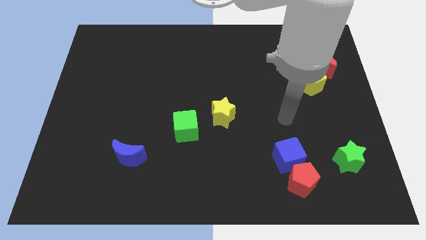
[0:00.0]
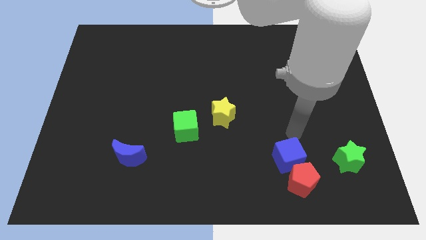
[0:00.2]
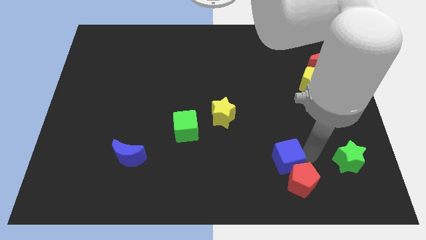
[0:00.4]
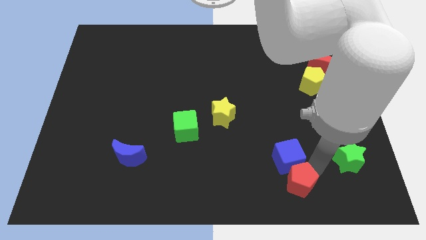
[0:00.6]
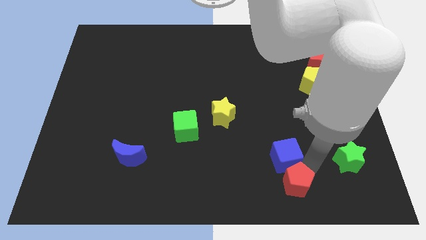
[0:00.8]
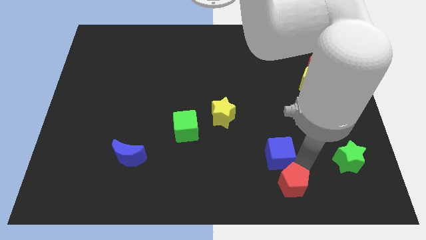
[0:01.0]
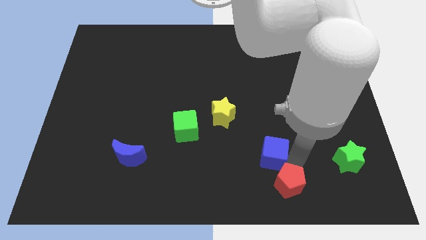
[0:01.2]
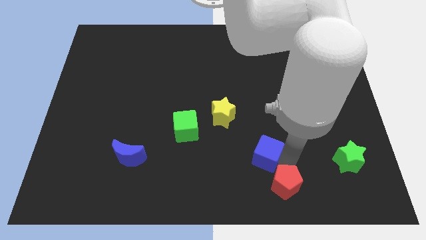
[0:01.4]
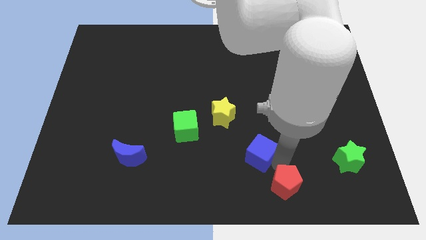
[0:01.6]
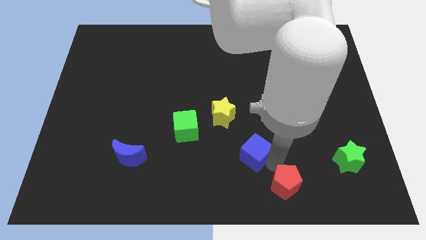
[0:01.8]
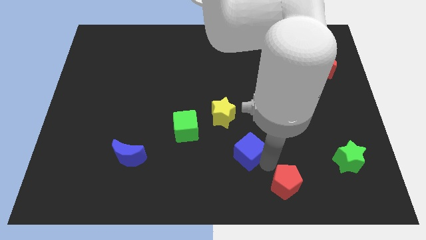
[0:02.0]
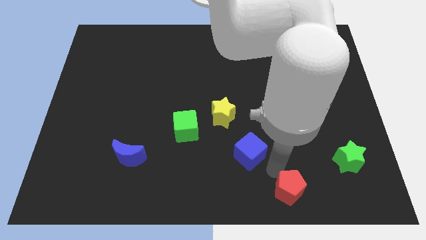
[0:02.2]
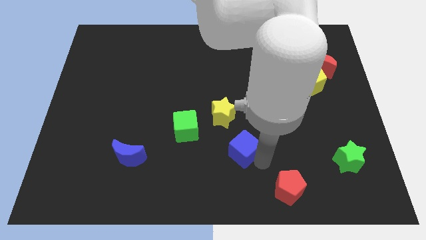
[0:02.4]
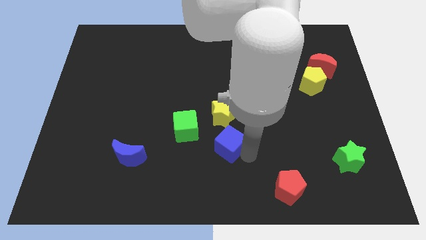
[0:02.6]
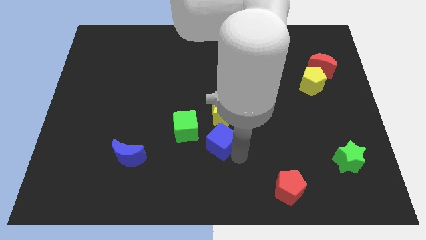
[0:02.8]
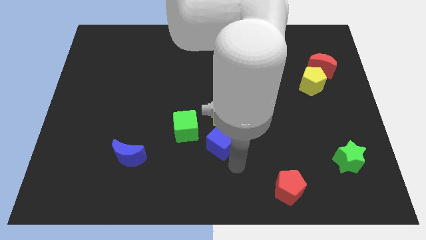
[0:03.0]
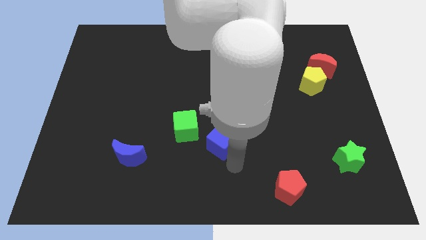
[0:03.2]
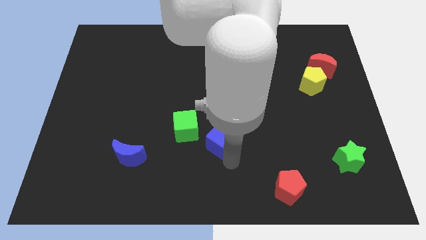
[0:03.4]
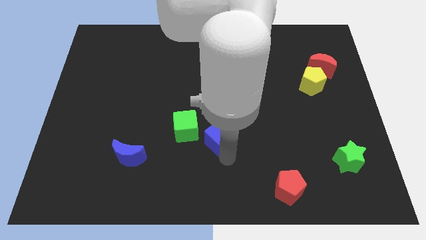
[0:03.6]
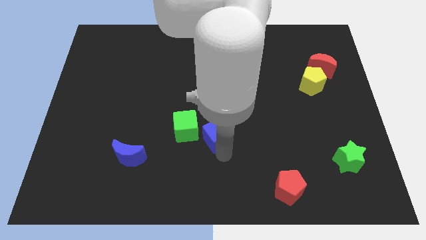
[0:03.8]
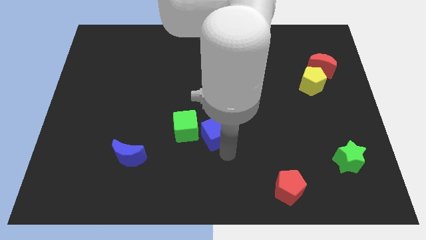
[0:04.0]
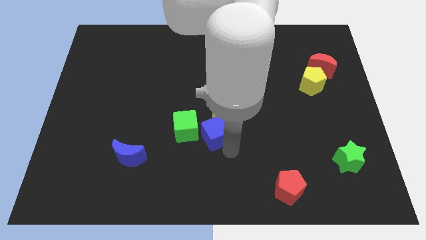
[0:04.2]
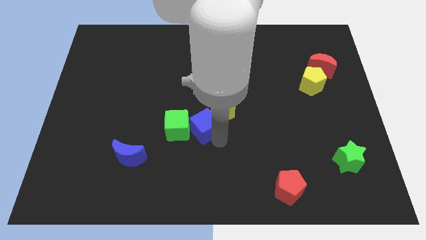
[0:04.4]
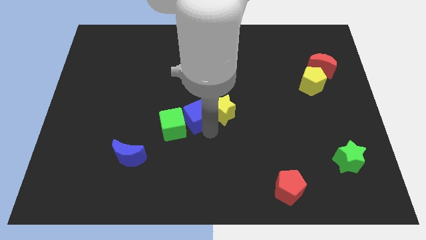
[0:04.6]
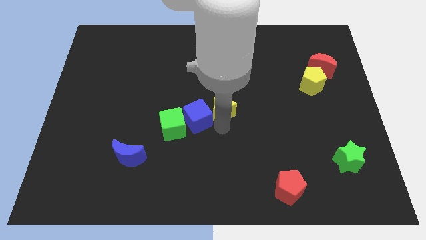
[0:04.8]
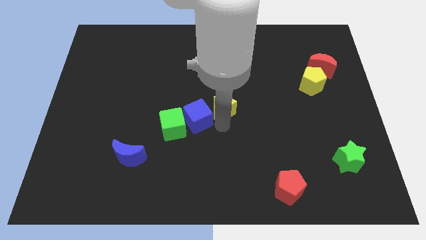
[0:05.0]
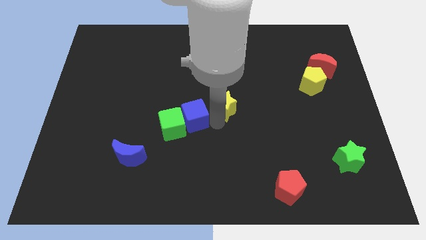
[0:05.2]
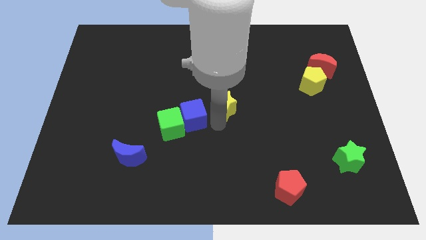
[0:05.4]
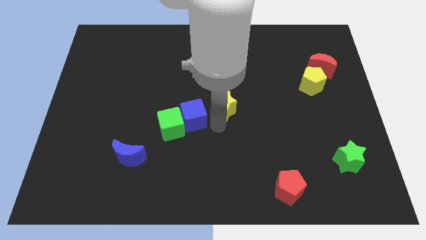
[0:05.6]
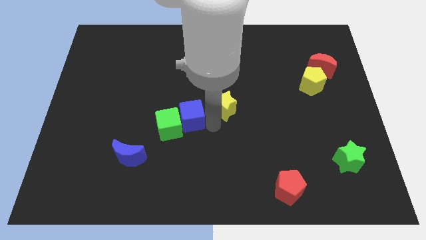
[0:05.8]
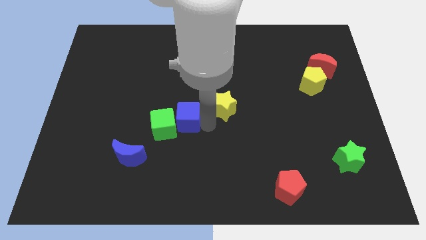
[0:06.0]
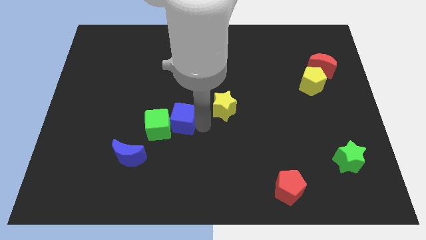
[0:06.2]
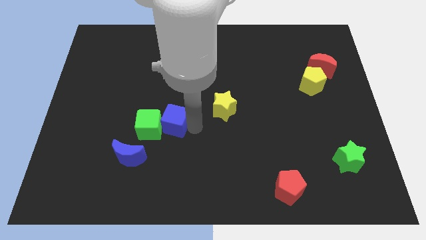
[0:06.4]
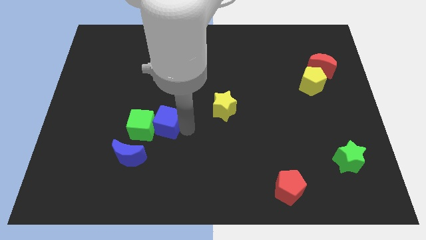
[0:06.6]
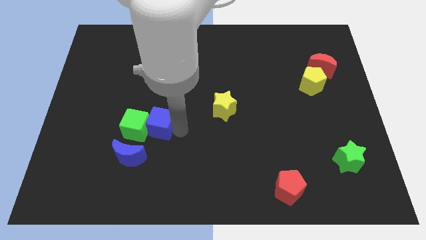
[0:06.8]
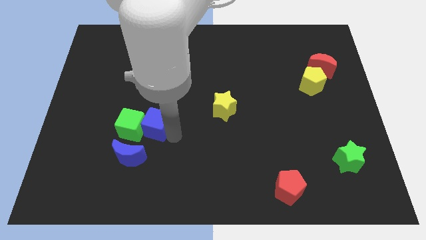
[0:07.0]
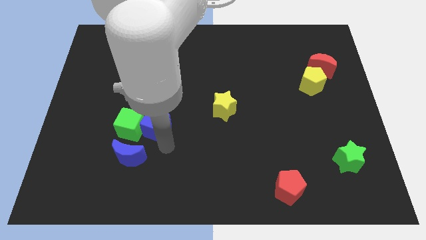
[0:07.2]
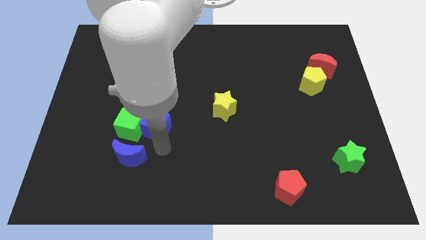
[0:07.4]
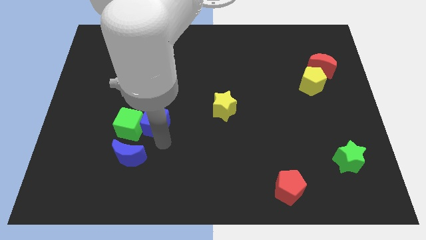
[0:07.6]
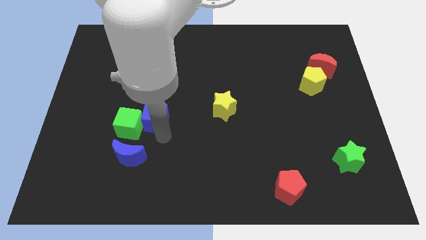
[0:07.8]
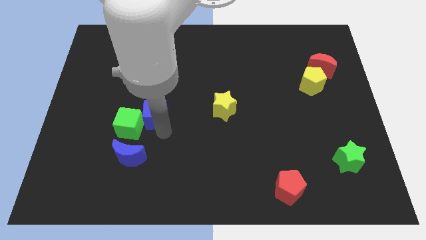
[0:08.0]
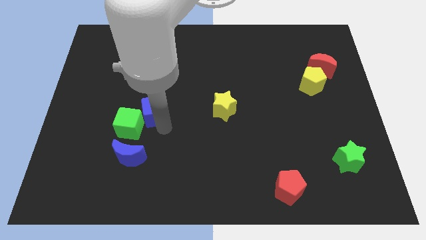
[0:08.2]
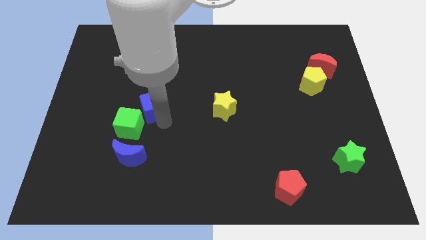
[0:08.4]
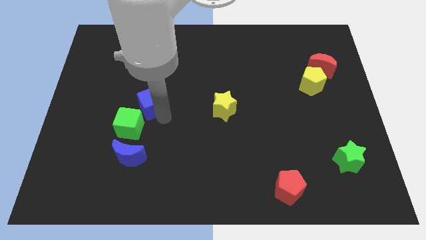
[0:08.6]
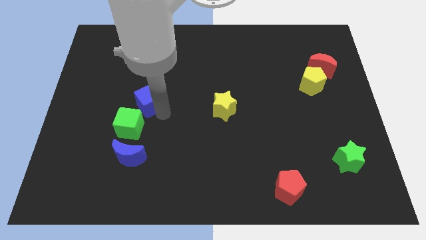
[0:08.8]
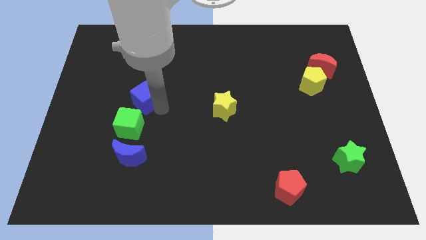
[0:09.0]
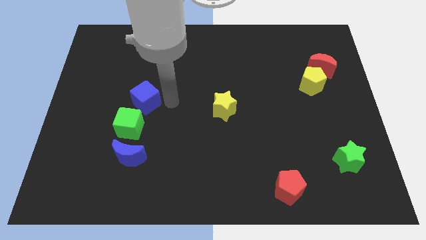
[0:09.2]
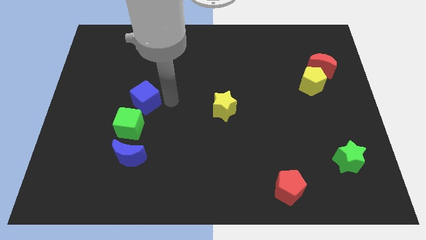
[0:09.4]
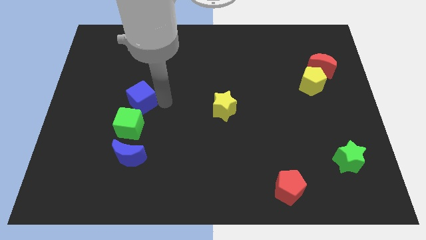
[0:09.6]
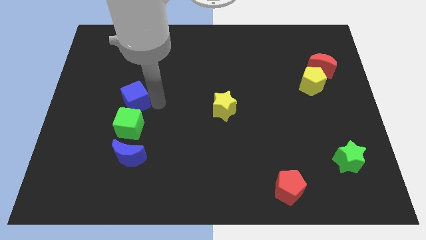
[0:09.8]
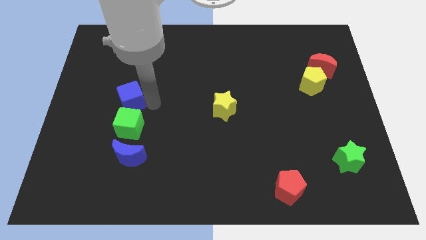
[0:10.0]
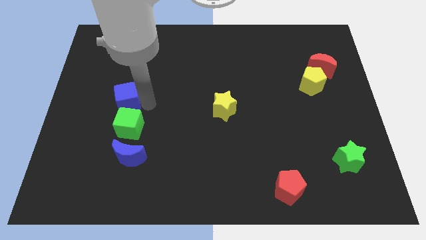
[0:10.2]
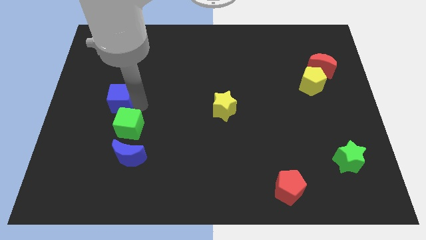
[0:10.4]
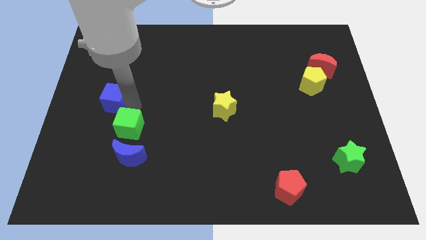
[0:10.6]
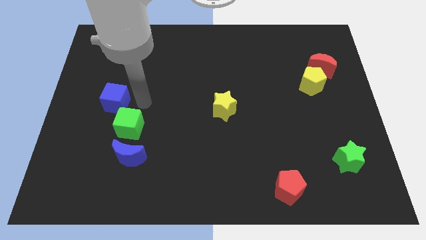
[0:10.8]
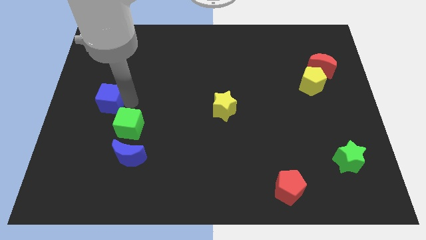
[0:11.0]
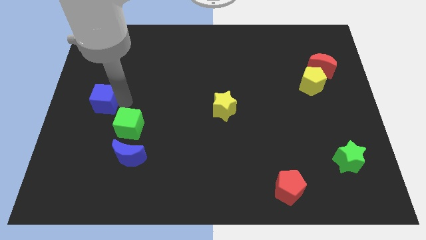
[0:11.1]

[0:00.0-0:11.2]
slide the blue cube to the left side
